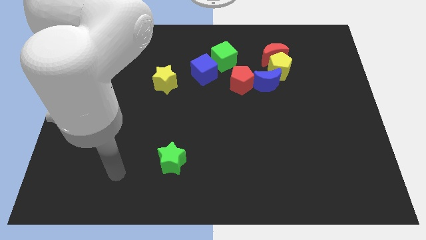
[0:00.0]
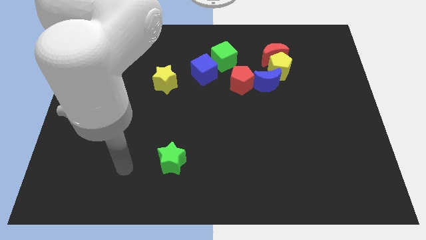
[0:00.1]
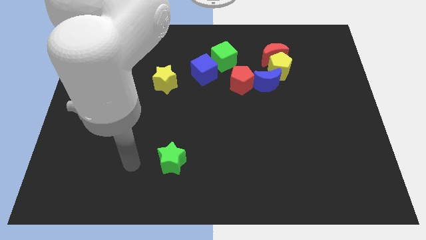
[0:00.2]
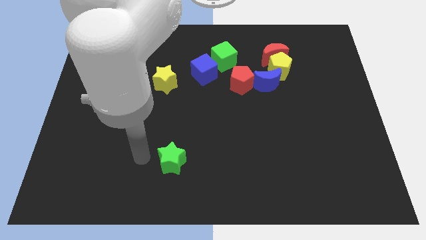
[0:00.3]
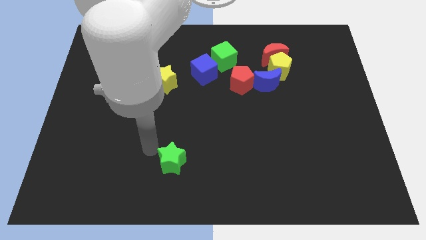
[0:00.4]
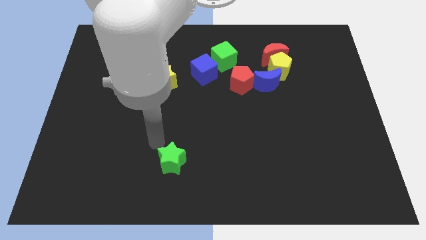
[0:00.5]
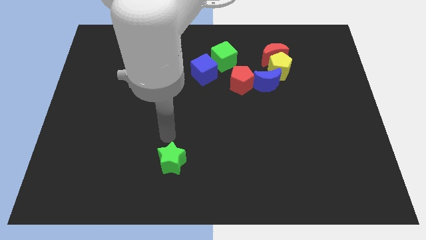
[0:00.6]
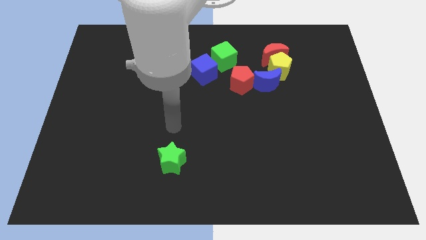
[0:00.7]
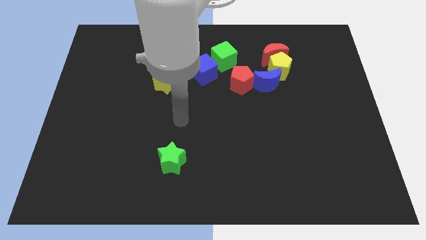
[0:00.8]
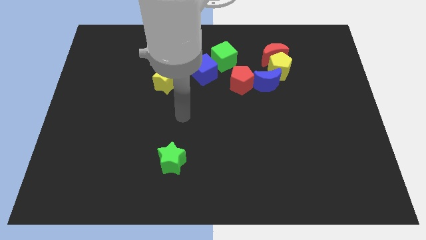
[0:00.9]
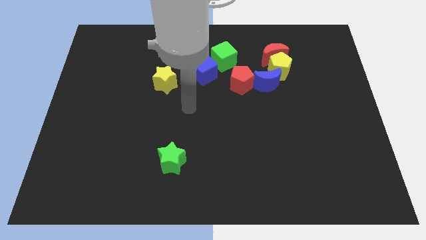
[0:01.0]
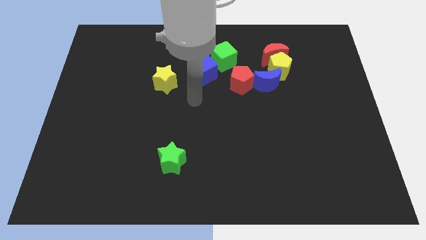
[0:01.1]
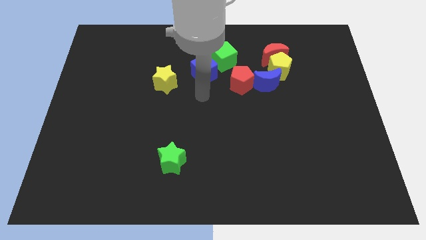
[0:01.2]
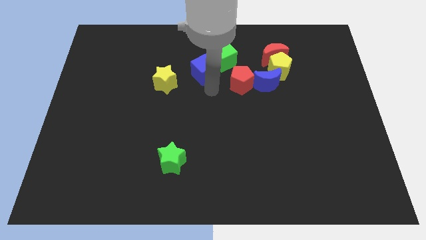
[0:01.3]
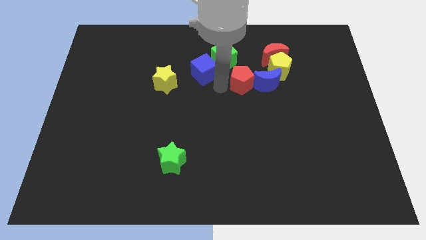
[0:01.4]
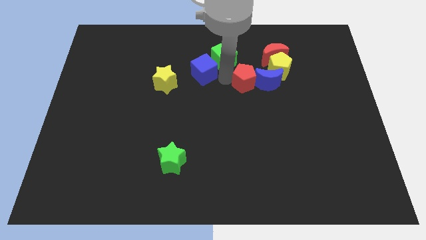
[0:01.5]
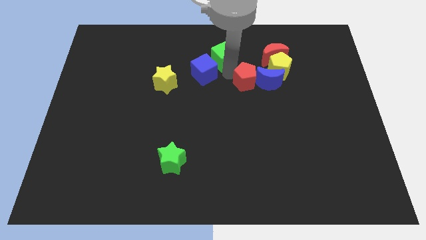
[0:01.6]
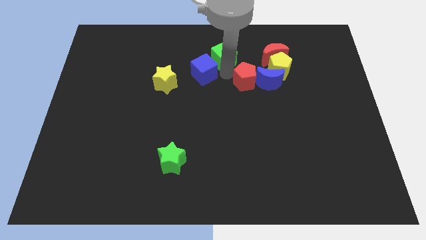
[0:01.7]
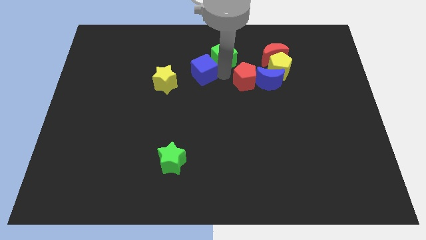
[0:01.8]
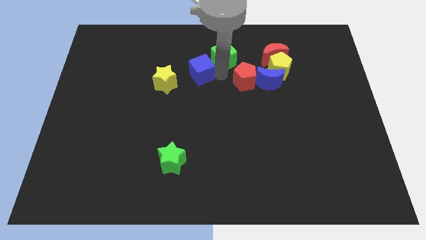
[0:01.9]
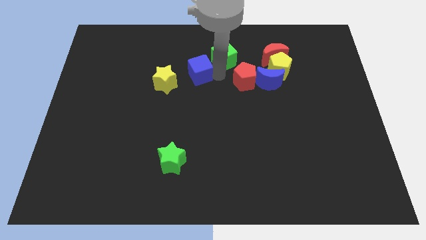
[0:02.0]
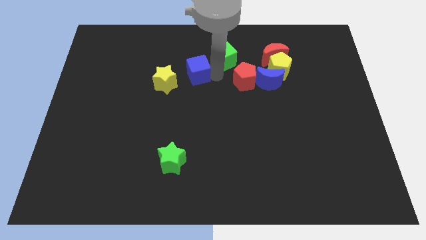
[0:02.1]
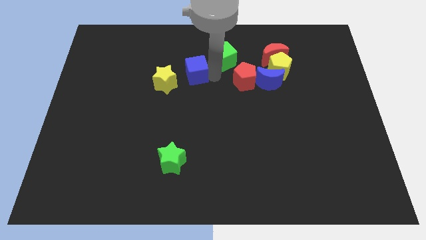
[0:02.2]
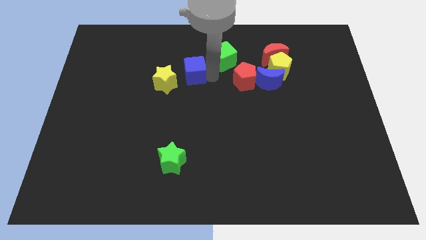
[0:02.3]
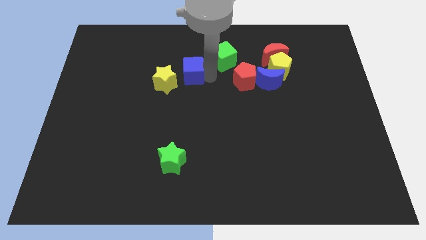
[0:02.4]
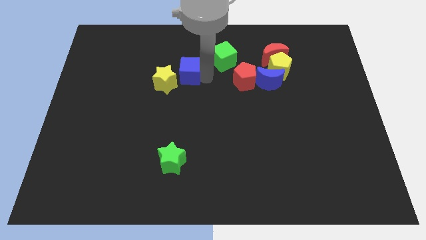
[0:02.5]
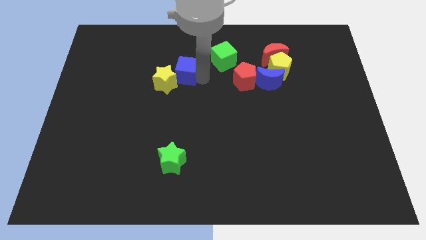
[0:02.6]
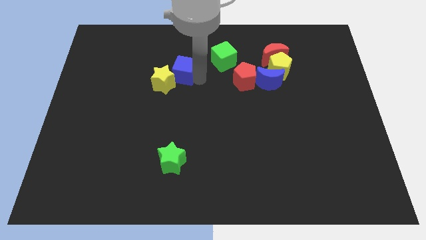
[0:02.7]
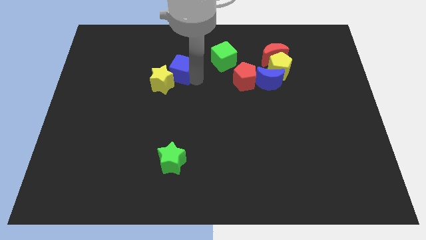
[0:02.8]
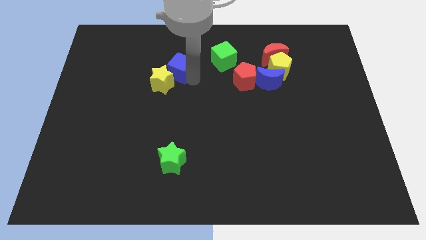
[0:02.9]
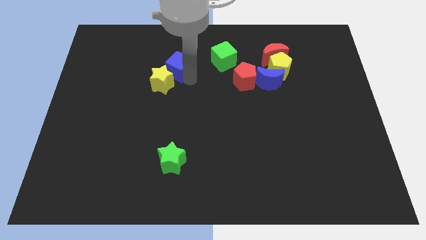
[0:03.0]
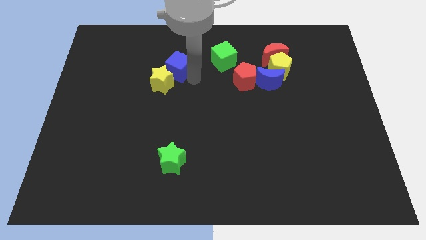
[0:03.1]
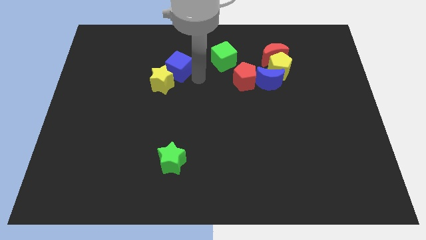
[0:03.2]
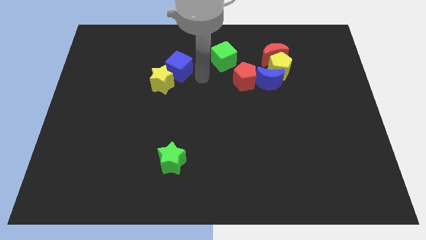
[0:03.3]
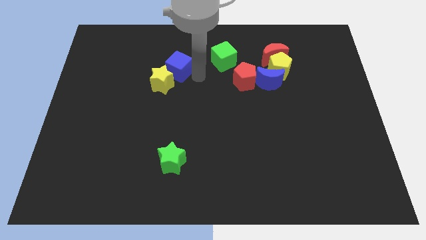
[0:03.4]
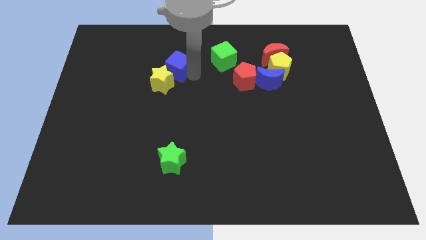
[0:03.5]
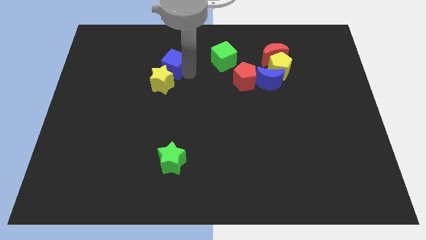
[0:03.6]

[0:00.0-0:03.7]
slide the blue cube a little to the left

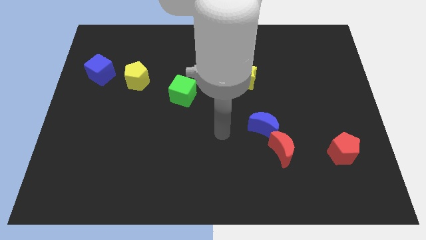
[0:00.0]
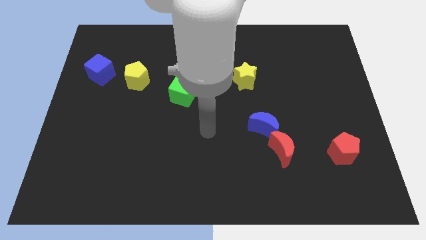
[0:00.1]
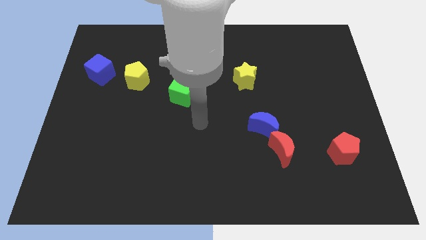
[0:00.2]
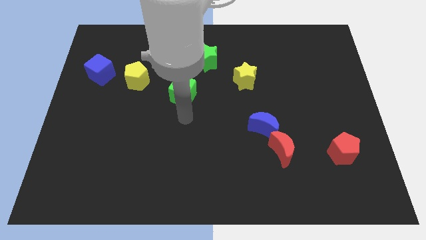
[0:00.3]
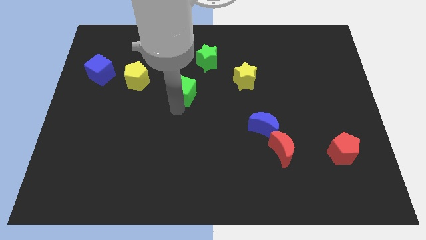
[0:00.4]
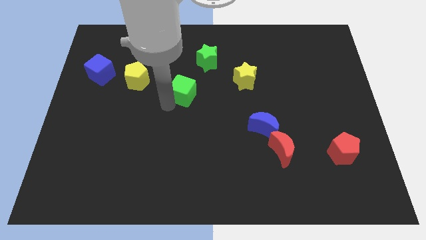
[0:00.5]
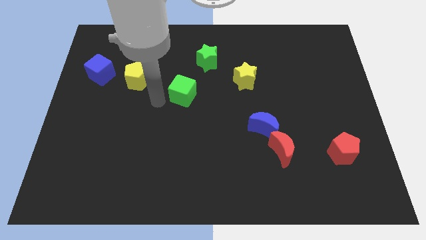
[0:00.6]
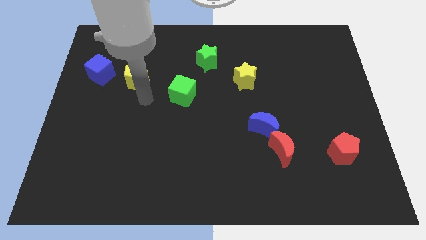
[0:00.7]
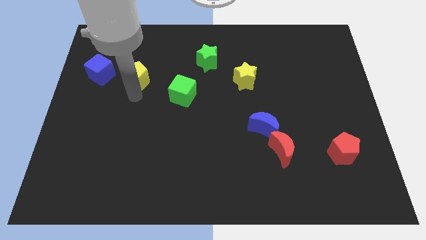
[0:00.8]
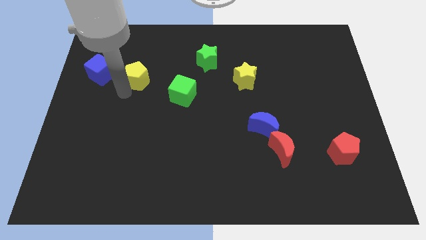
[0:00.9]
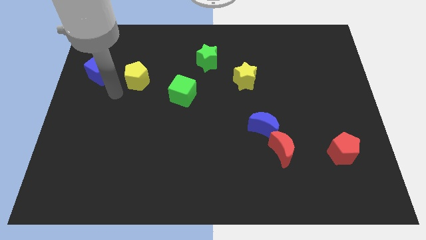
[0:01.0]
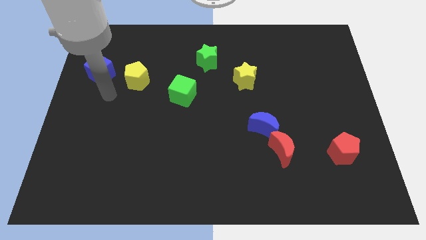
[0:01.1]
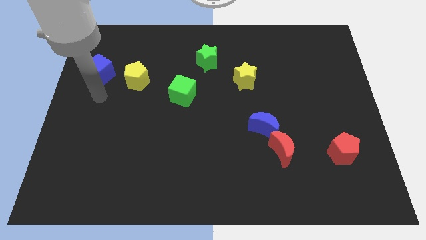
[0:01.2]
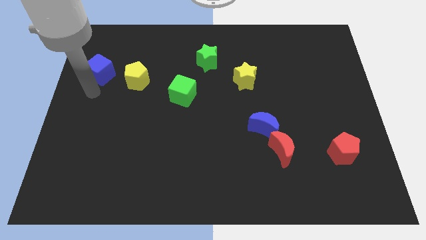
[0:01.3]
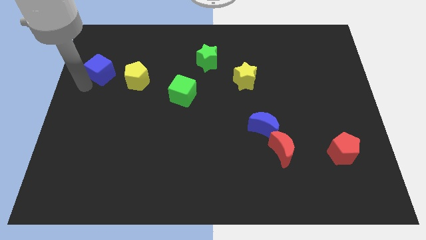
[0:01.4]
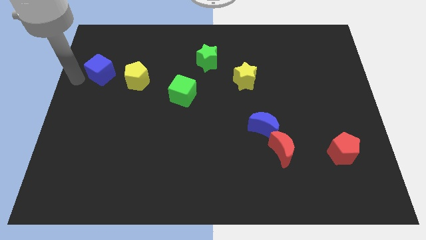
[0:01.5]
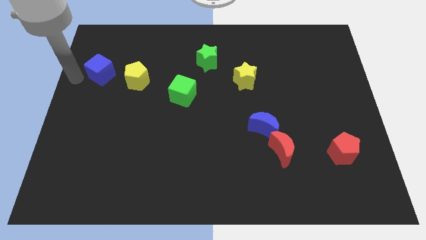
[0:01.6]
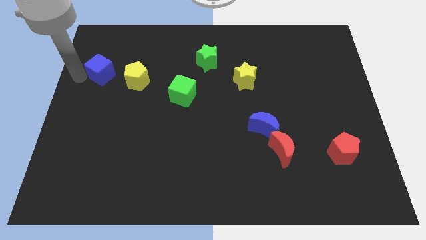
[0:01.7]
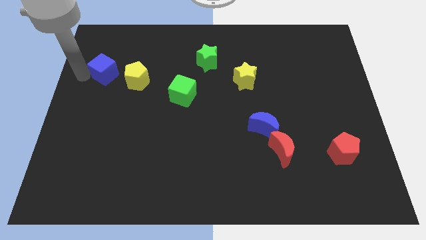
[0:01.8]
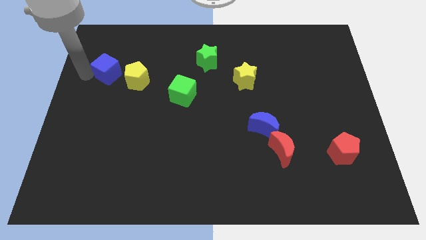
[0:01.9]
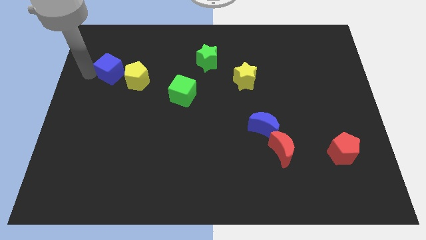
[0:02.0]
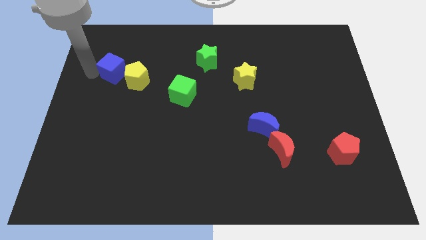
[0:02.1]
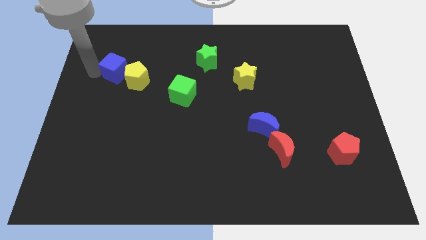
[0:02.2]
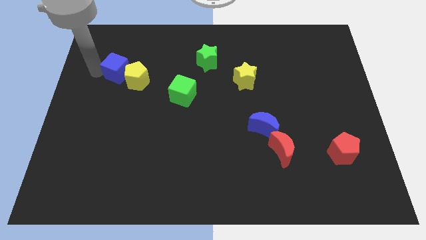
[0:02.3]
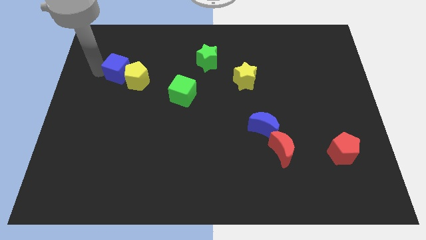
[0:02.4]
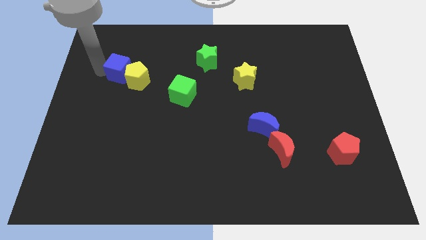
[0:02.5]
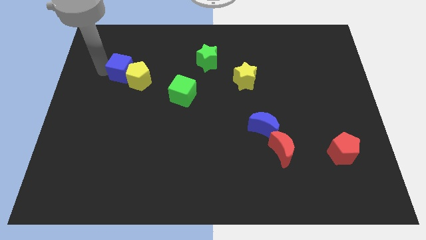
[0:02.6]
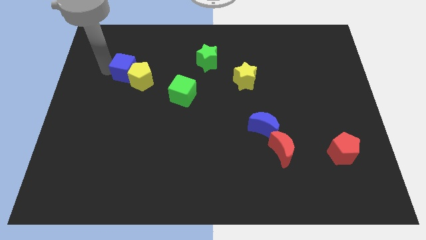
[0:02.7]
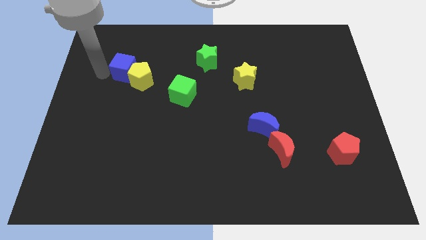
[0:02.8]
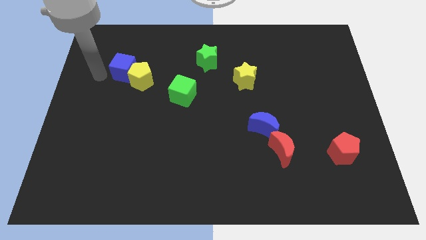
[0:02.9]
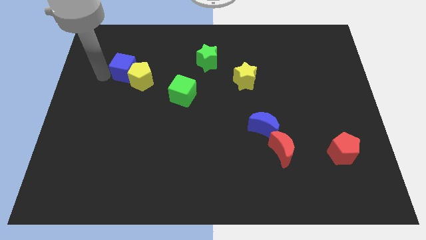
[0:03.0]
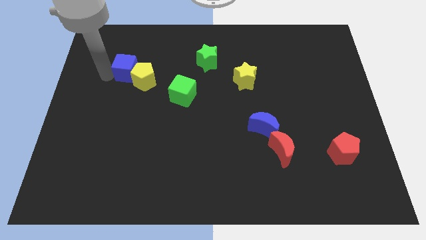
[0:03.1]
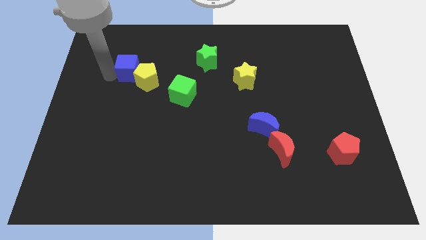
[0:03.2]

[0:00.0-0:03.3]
slightly move the blue cube right

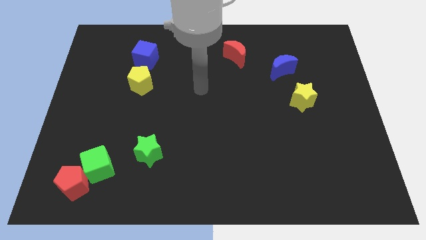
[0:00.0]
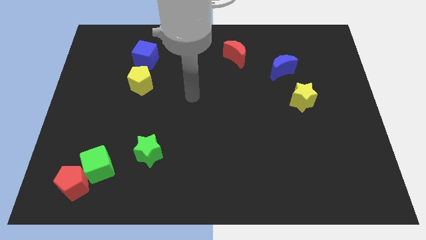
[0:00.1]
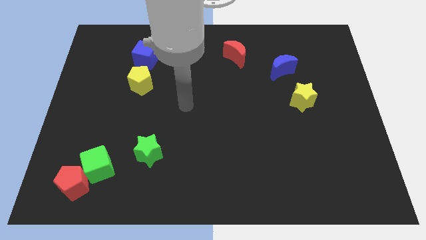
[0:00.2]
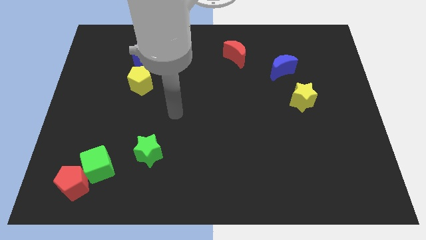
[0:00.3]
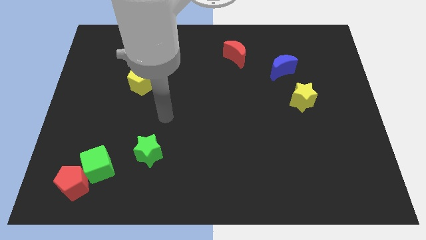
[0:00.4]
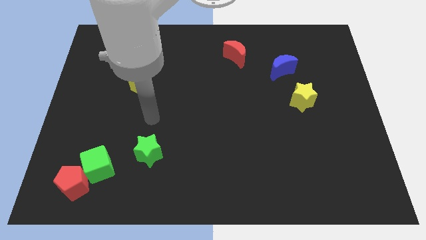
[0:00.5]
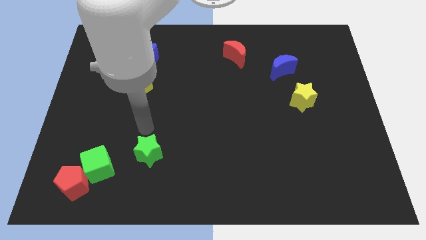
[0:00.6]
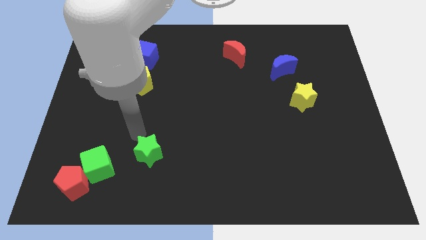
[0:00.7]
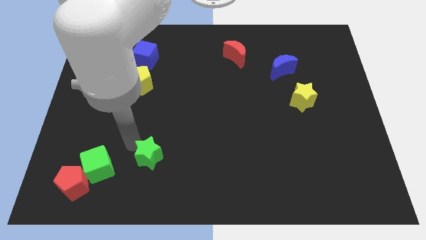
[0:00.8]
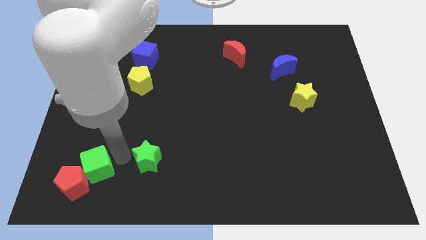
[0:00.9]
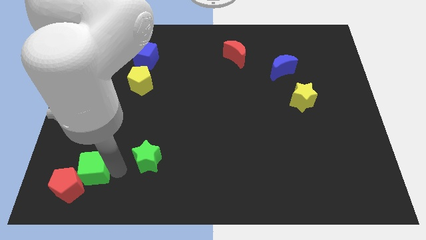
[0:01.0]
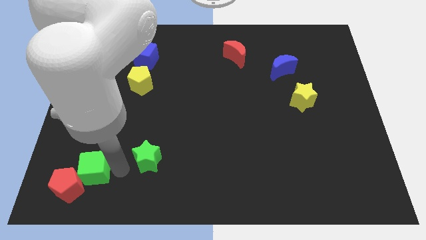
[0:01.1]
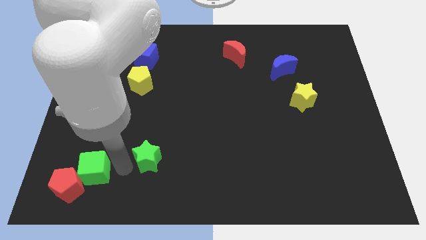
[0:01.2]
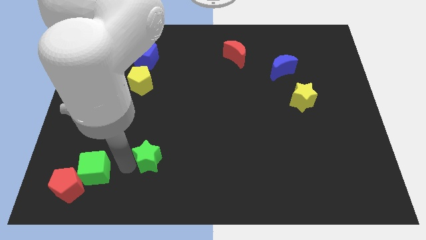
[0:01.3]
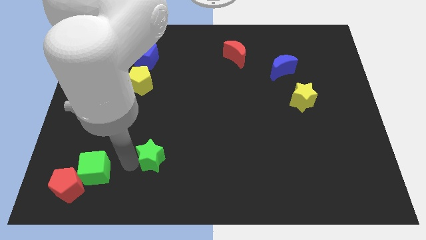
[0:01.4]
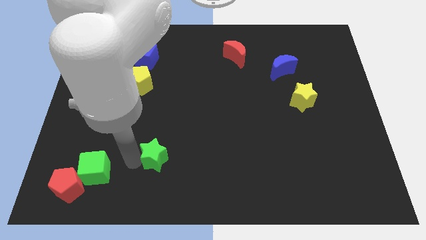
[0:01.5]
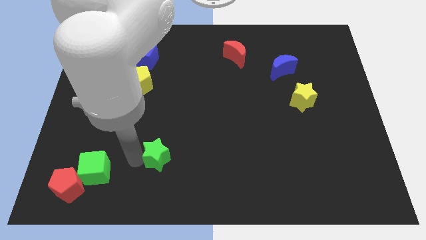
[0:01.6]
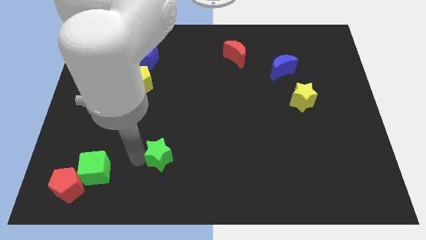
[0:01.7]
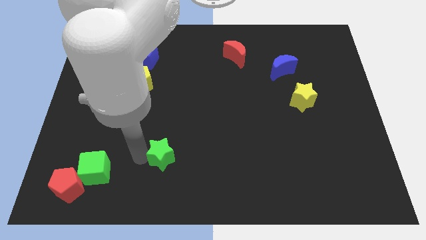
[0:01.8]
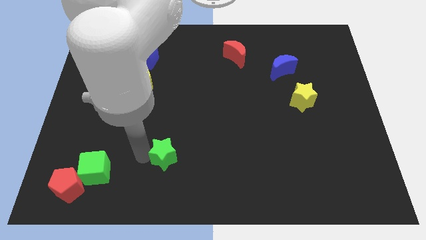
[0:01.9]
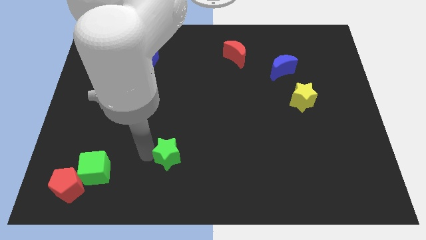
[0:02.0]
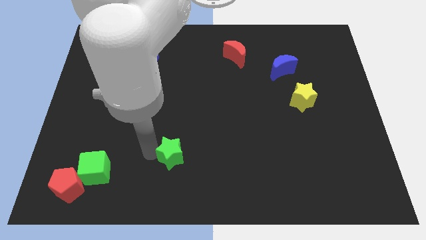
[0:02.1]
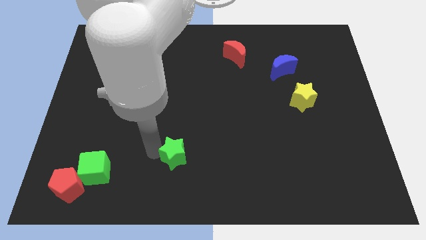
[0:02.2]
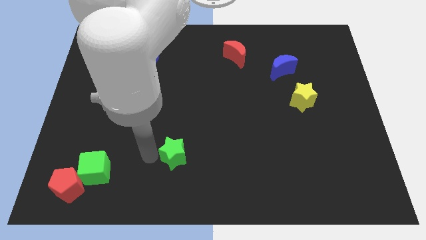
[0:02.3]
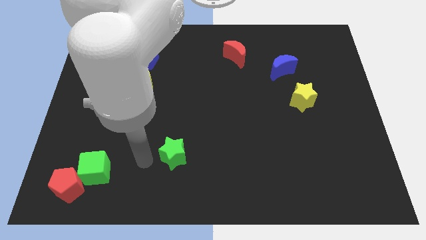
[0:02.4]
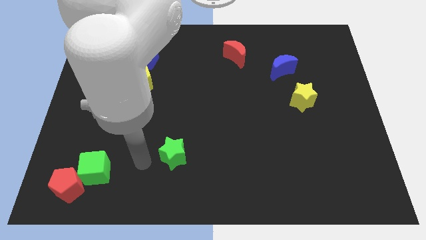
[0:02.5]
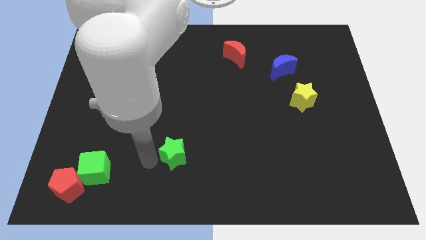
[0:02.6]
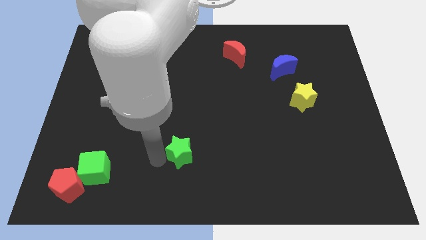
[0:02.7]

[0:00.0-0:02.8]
move the green star somewhat to the right
